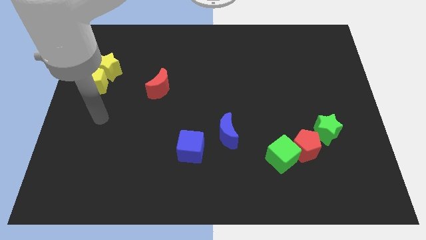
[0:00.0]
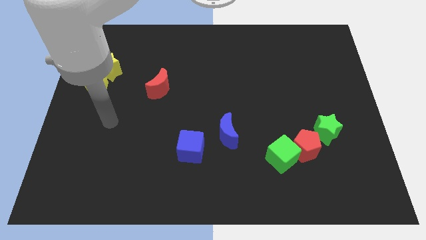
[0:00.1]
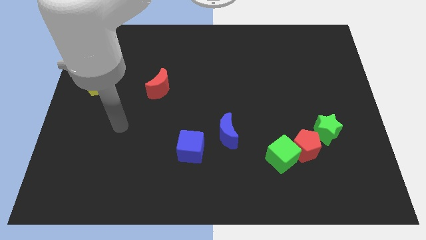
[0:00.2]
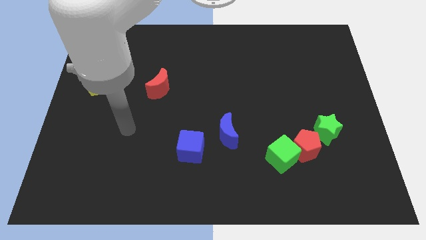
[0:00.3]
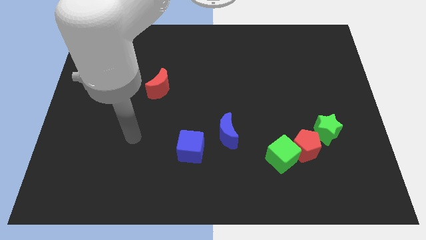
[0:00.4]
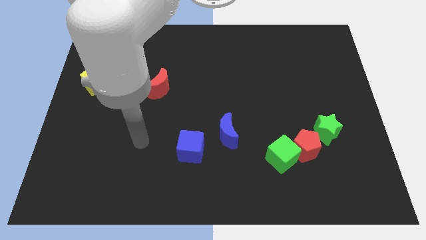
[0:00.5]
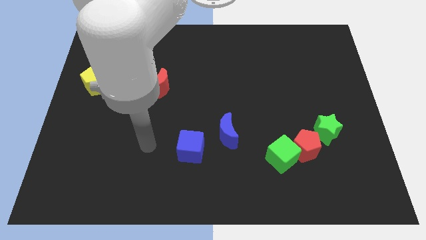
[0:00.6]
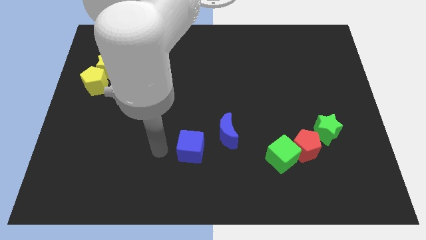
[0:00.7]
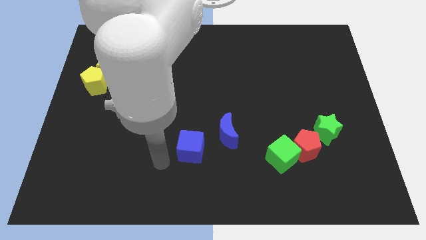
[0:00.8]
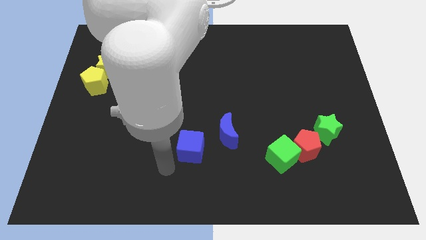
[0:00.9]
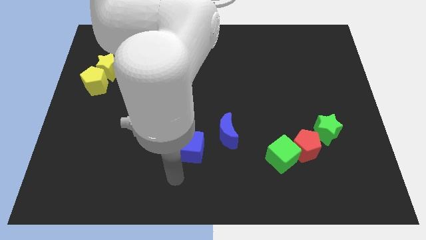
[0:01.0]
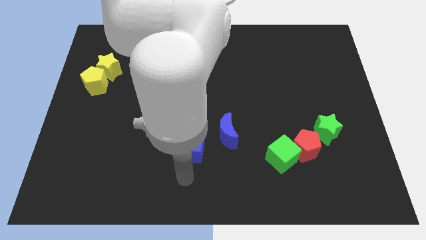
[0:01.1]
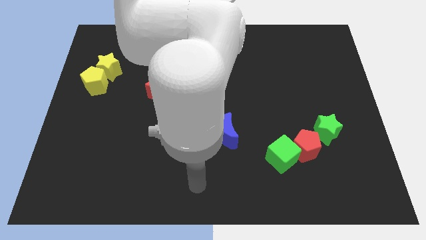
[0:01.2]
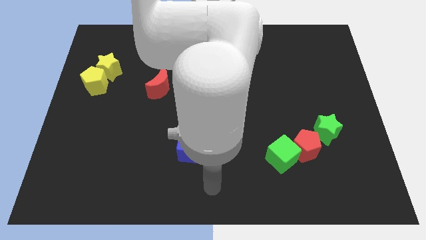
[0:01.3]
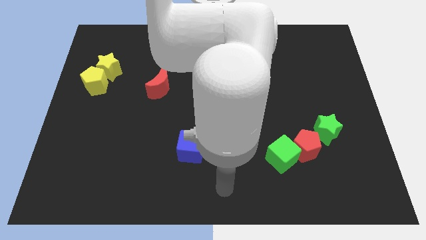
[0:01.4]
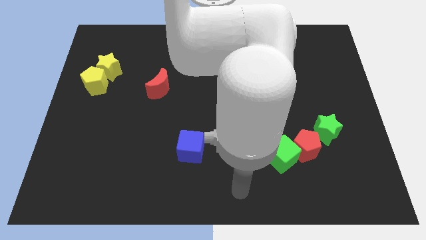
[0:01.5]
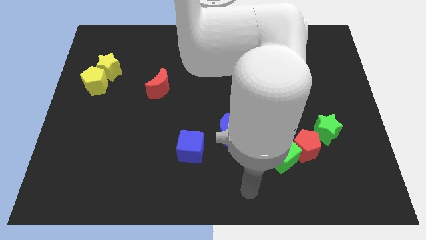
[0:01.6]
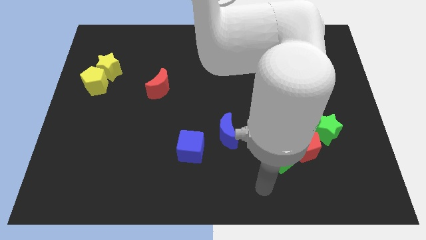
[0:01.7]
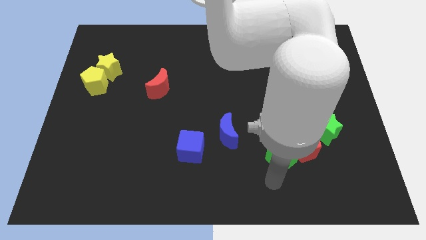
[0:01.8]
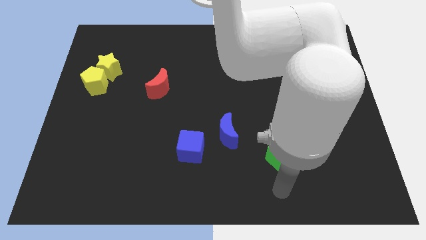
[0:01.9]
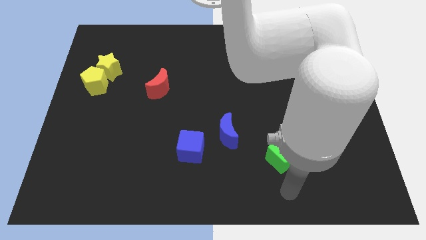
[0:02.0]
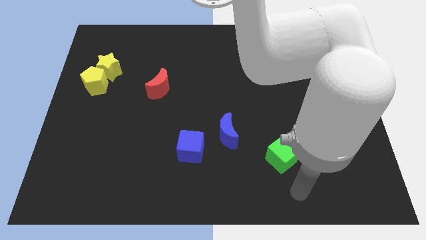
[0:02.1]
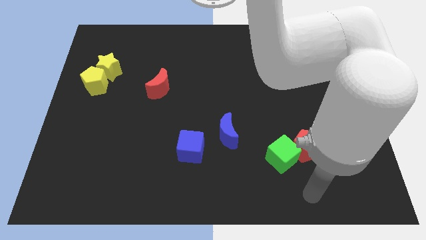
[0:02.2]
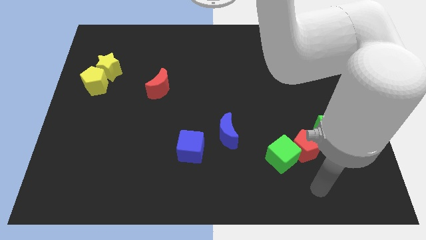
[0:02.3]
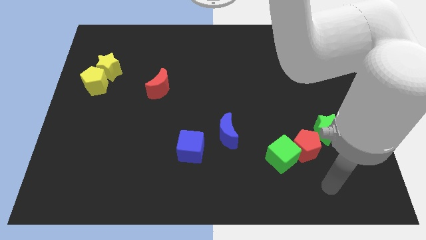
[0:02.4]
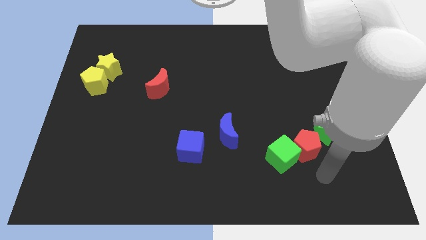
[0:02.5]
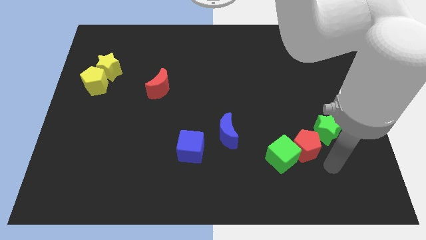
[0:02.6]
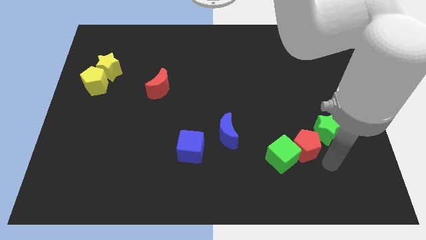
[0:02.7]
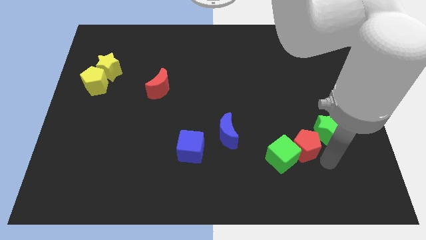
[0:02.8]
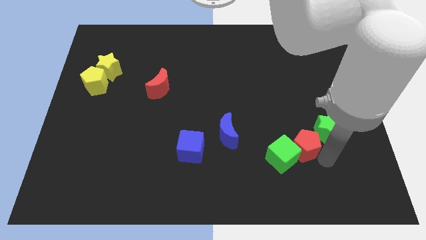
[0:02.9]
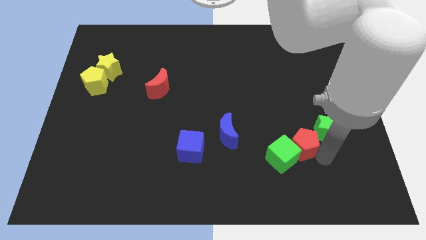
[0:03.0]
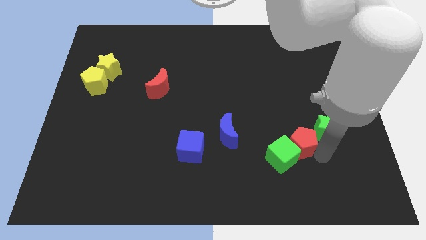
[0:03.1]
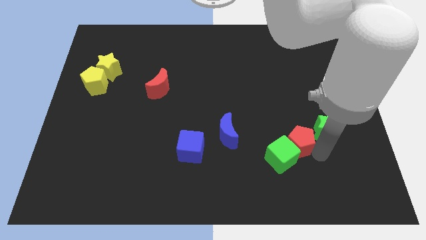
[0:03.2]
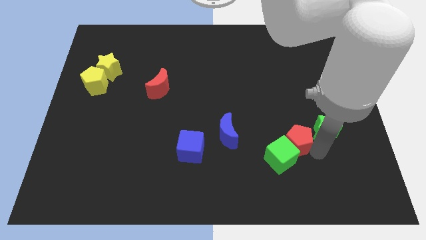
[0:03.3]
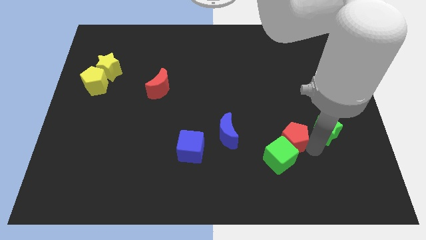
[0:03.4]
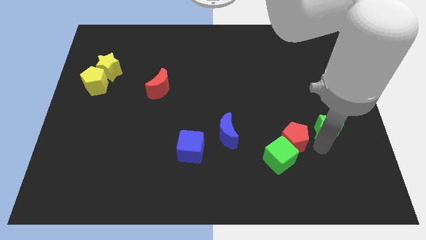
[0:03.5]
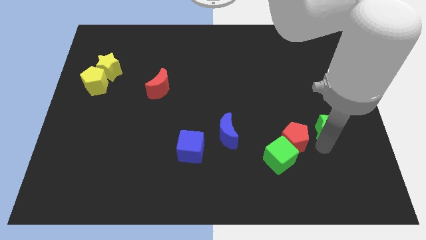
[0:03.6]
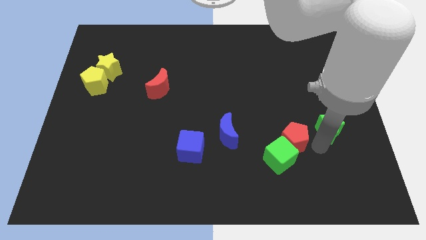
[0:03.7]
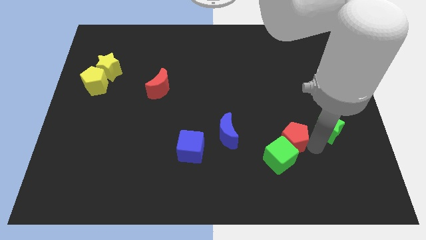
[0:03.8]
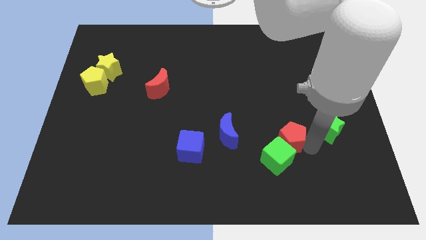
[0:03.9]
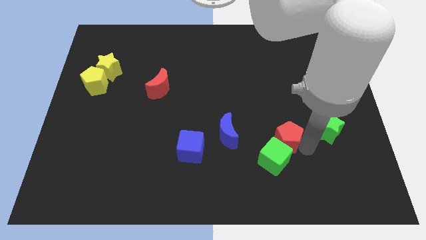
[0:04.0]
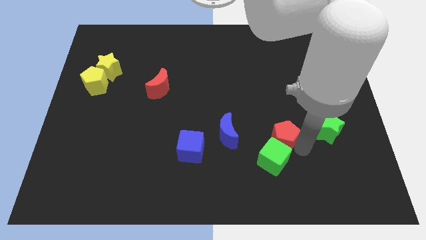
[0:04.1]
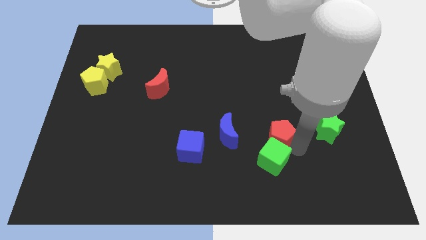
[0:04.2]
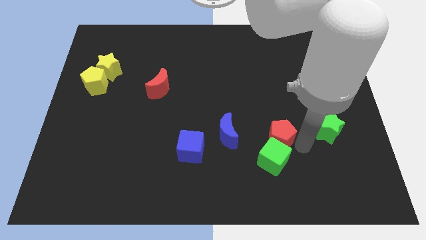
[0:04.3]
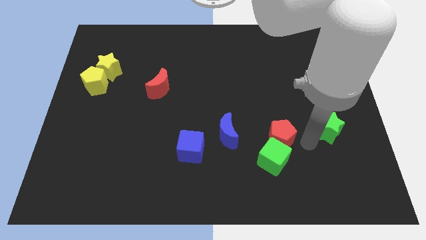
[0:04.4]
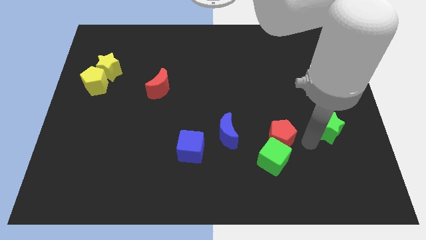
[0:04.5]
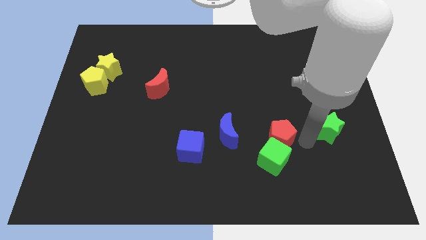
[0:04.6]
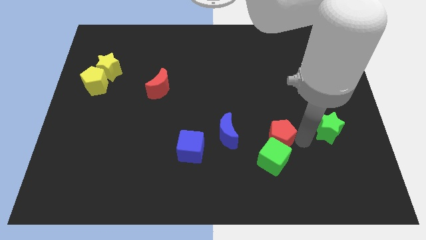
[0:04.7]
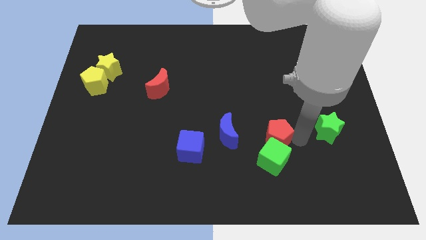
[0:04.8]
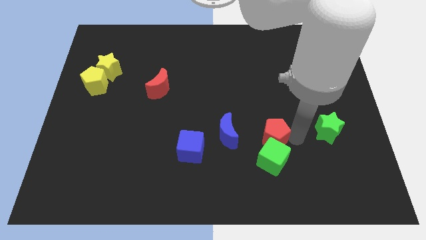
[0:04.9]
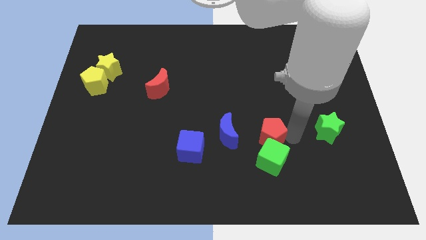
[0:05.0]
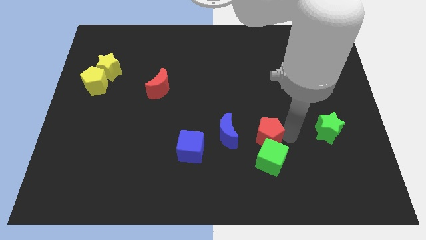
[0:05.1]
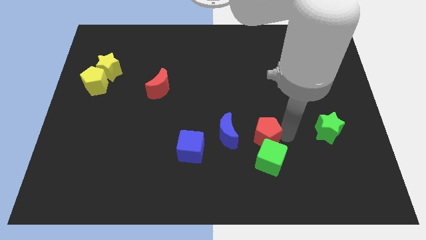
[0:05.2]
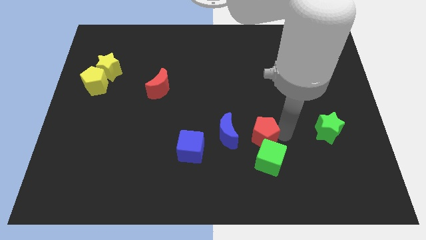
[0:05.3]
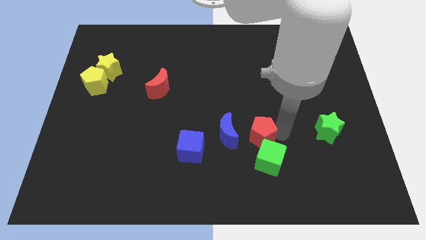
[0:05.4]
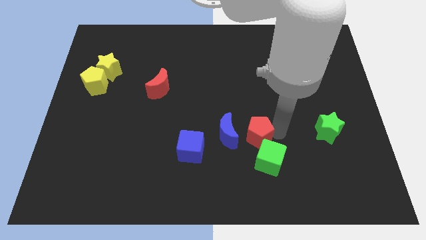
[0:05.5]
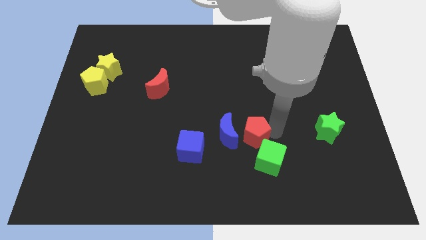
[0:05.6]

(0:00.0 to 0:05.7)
put the red pentagon close to the blue moon

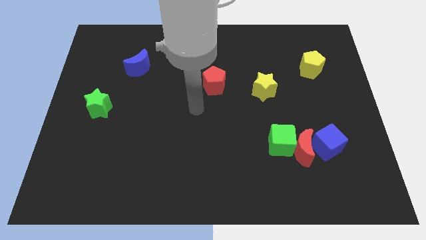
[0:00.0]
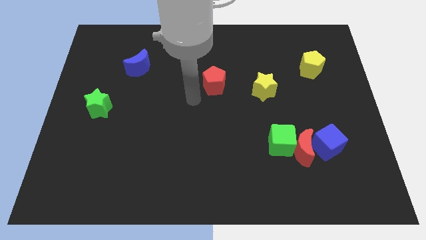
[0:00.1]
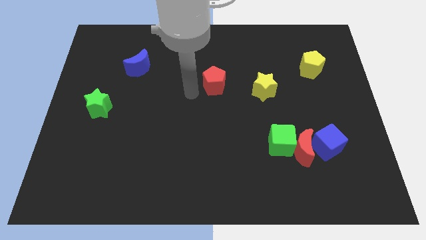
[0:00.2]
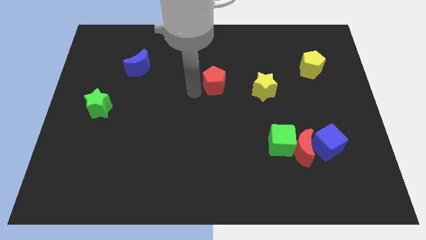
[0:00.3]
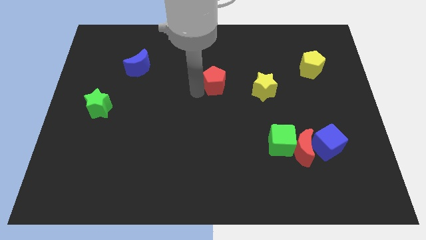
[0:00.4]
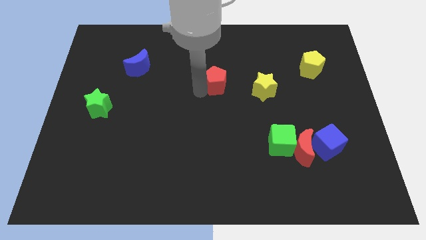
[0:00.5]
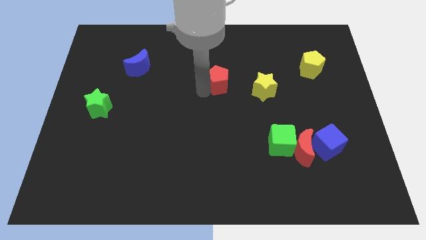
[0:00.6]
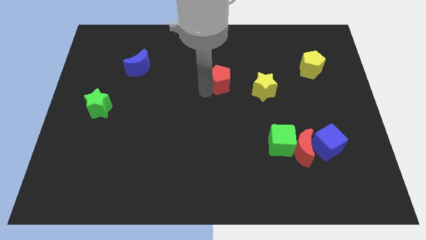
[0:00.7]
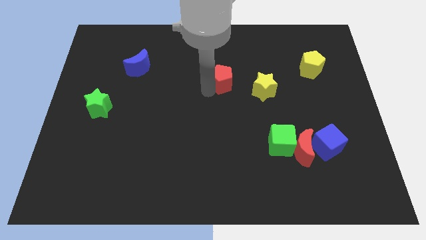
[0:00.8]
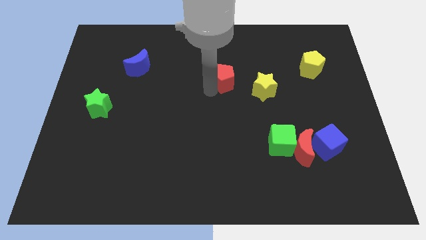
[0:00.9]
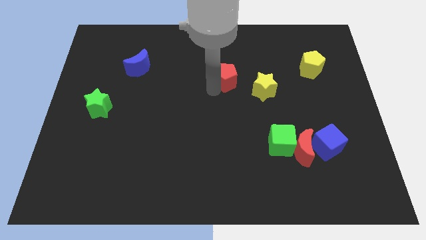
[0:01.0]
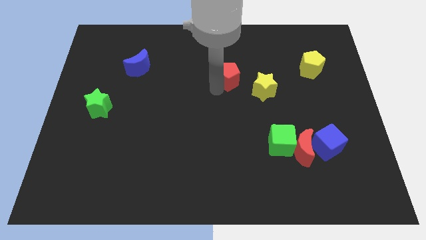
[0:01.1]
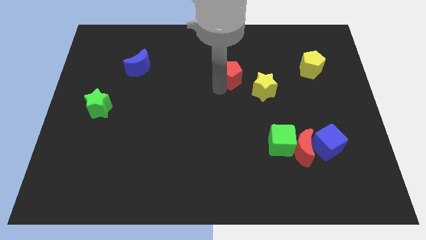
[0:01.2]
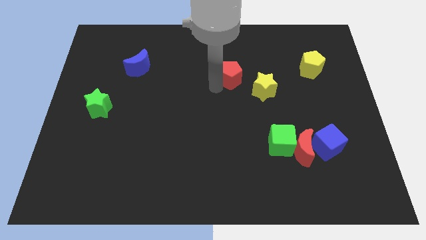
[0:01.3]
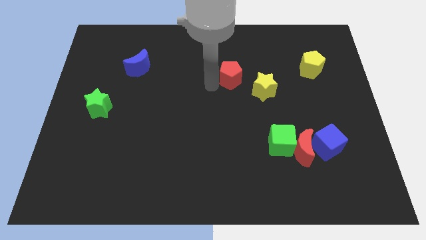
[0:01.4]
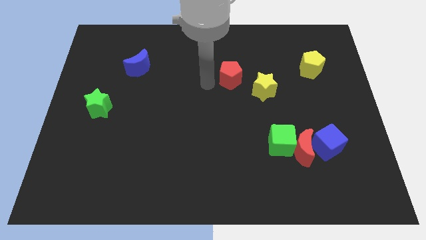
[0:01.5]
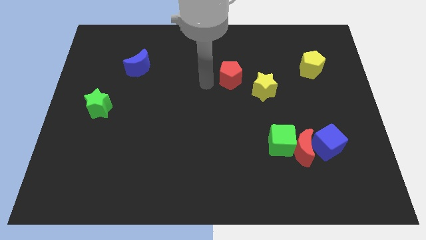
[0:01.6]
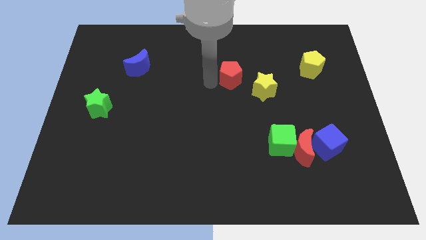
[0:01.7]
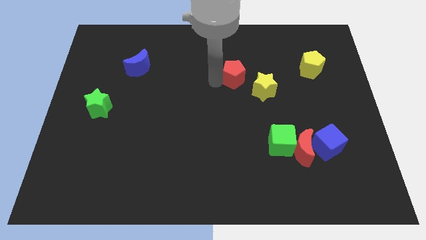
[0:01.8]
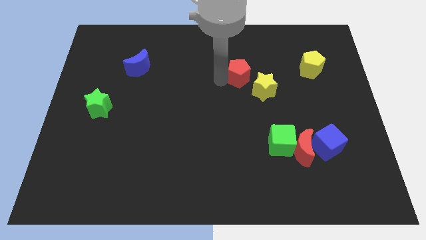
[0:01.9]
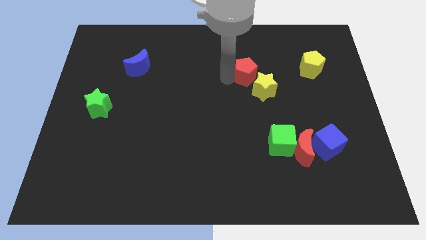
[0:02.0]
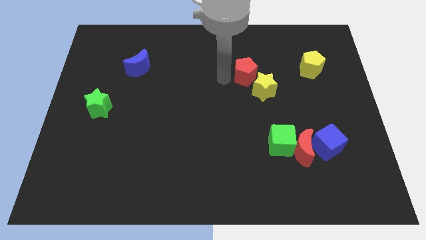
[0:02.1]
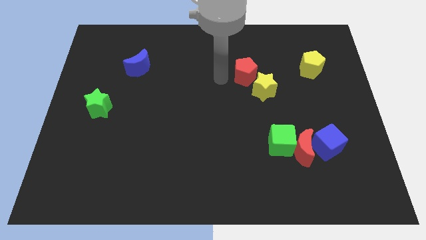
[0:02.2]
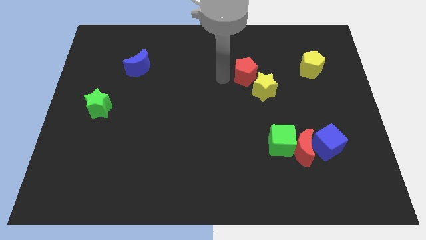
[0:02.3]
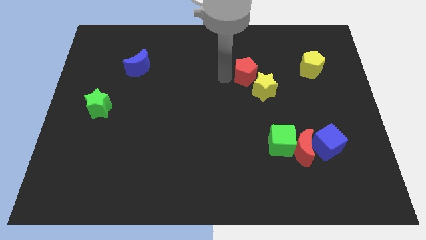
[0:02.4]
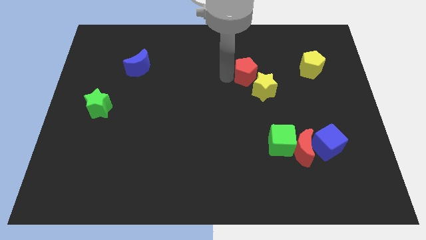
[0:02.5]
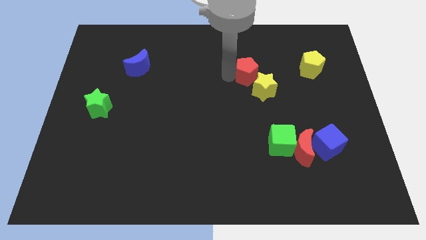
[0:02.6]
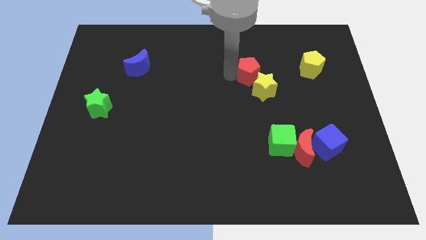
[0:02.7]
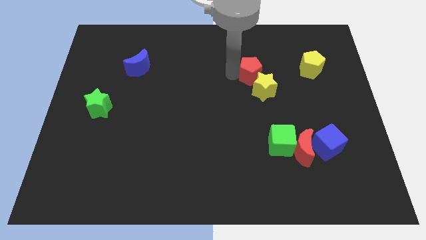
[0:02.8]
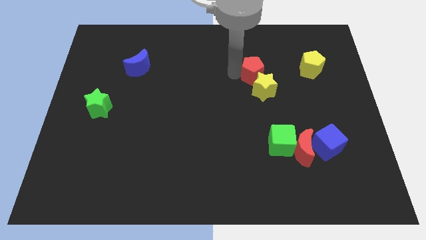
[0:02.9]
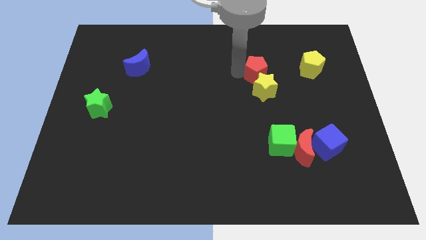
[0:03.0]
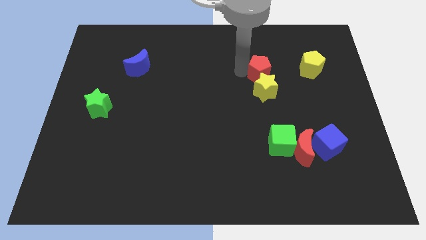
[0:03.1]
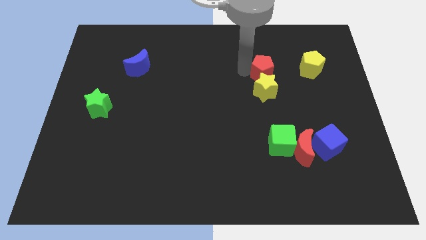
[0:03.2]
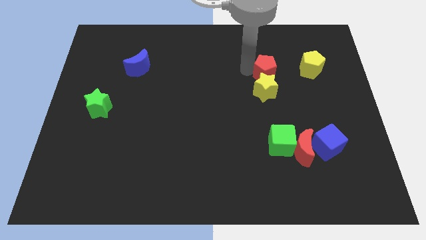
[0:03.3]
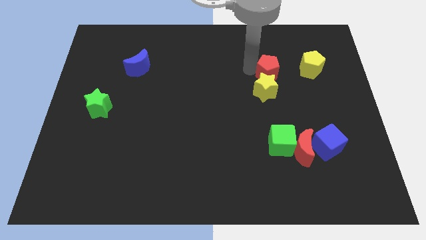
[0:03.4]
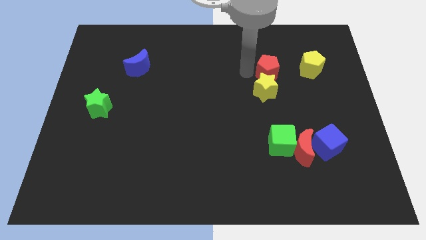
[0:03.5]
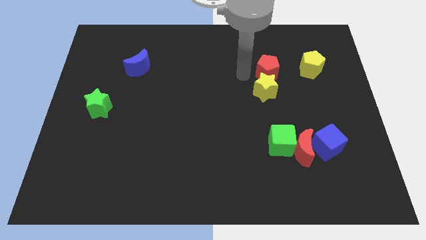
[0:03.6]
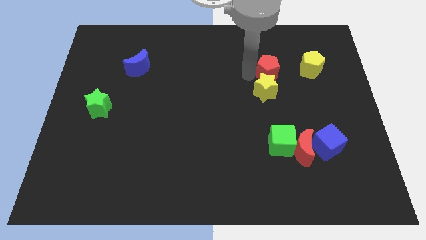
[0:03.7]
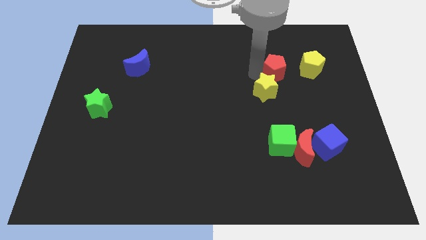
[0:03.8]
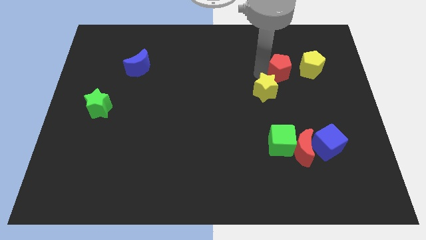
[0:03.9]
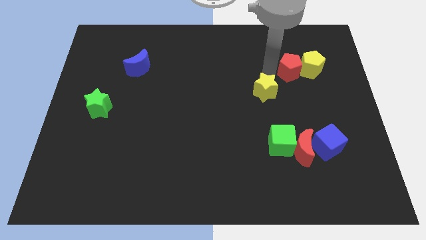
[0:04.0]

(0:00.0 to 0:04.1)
put the red pentagon next to the yellow pentagon
